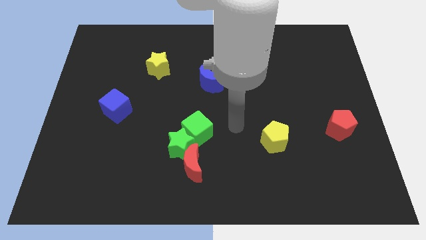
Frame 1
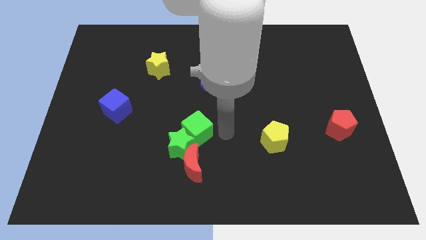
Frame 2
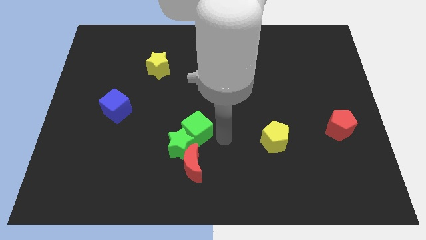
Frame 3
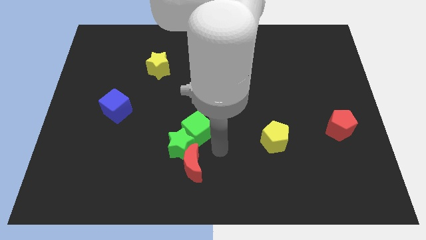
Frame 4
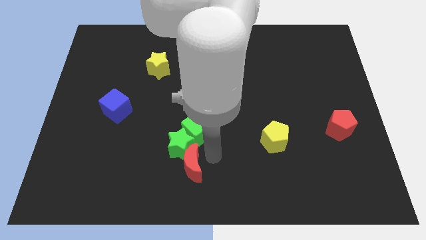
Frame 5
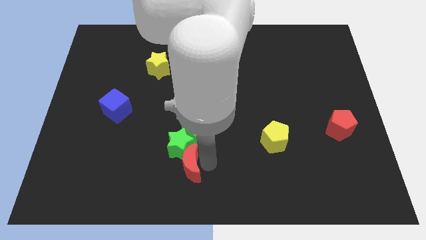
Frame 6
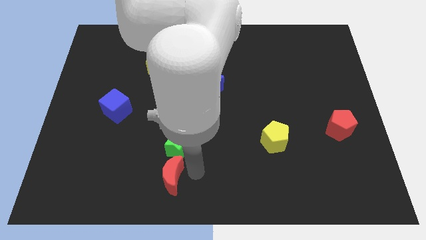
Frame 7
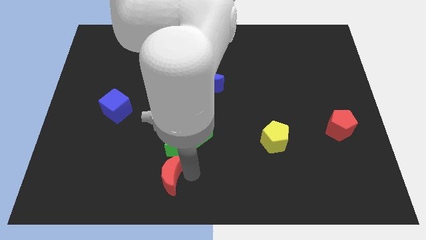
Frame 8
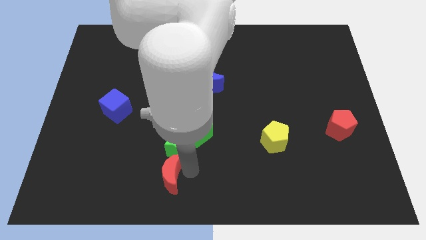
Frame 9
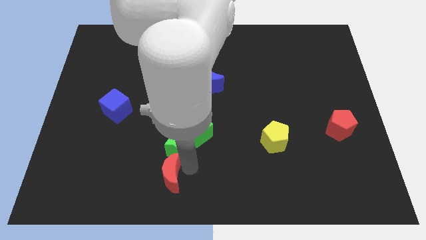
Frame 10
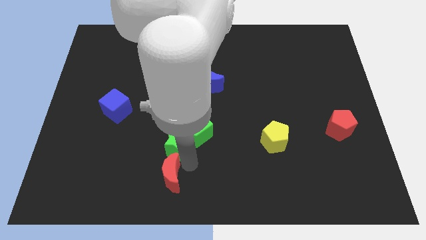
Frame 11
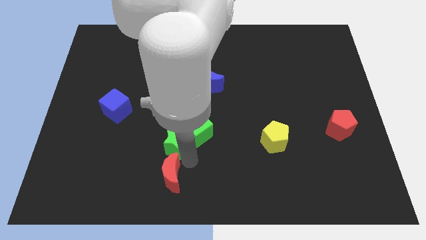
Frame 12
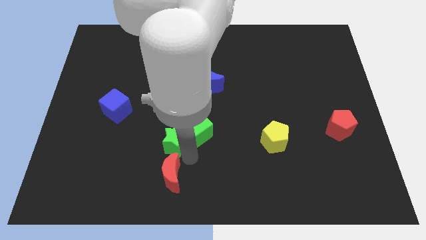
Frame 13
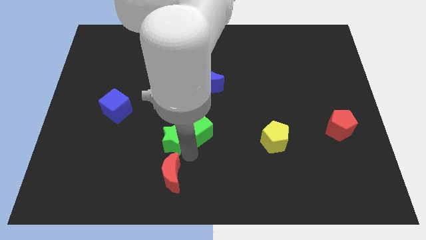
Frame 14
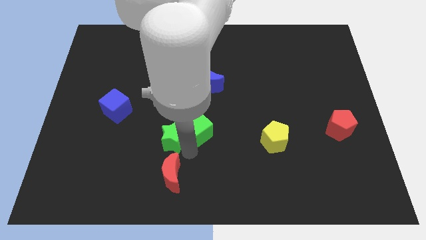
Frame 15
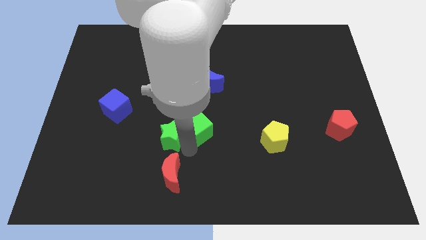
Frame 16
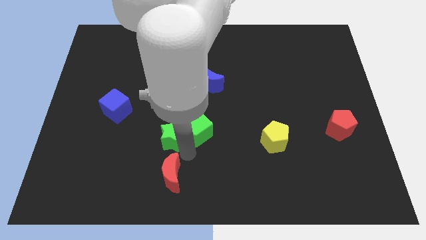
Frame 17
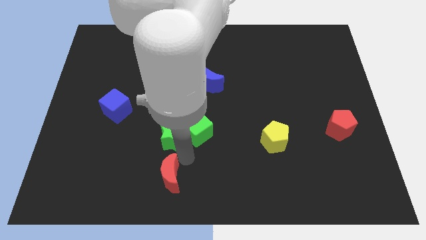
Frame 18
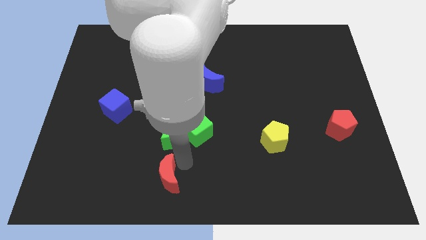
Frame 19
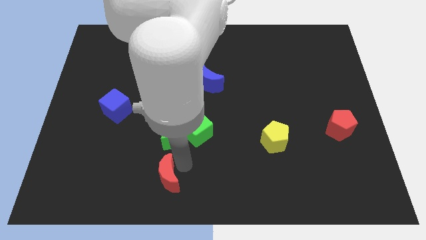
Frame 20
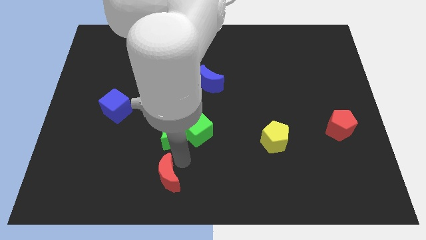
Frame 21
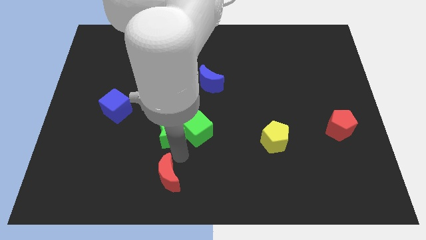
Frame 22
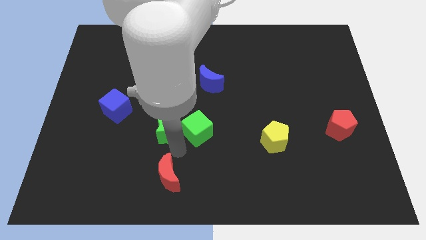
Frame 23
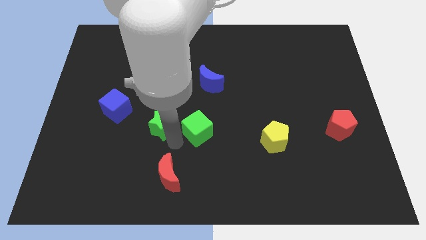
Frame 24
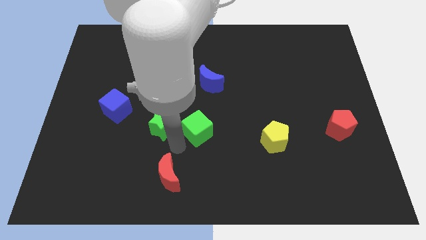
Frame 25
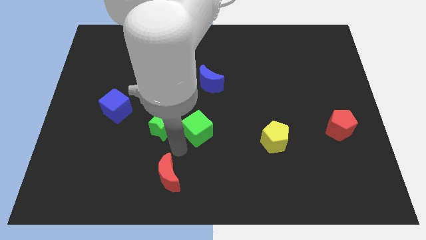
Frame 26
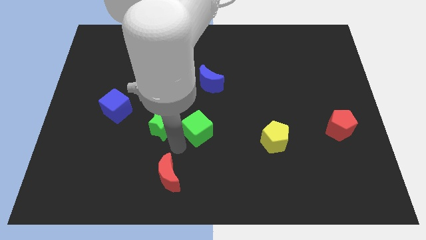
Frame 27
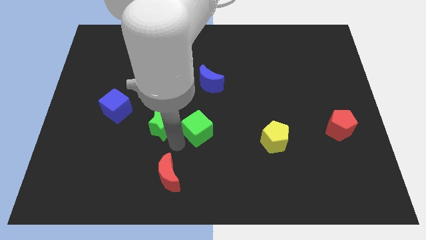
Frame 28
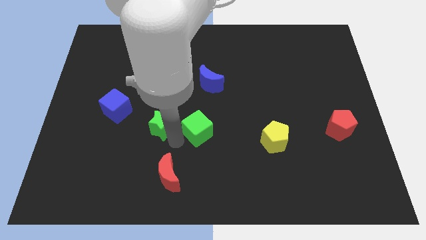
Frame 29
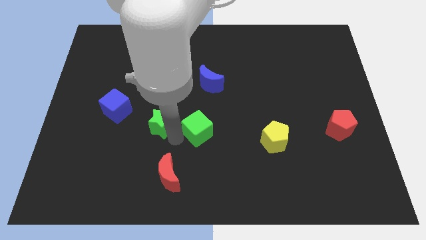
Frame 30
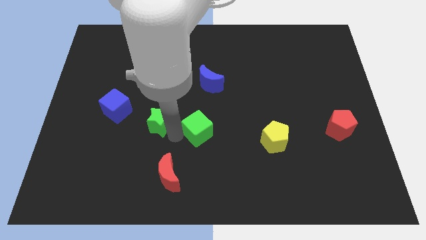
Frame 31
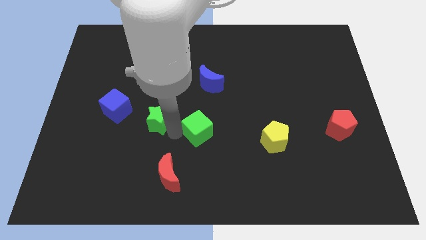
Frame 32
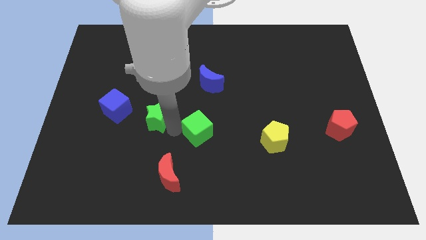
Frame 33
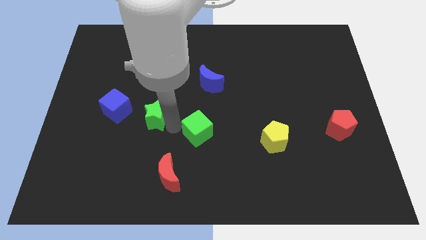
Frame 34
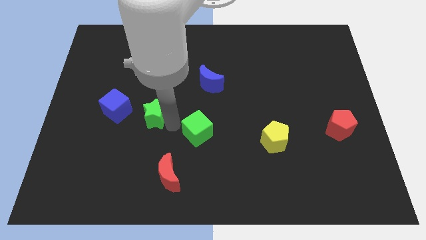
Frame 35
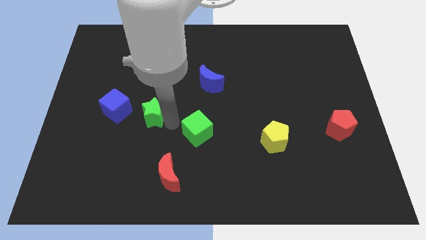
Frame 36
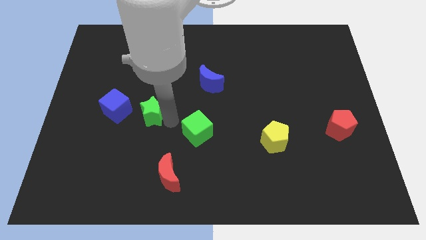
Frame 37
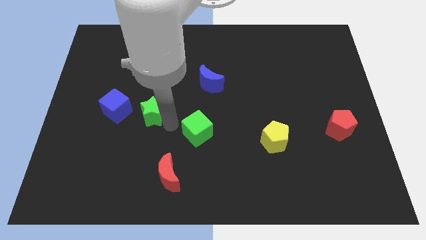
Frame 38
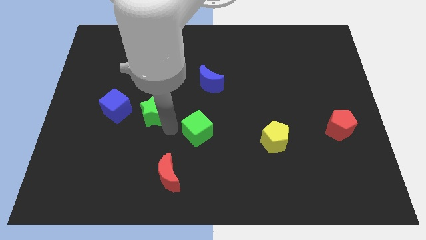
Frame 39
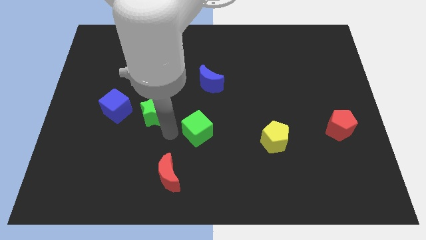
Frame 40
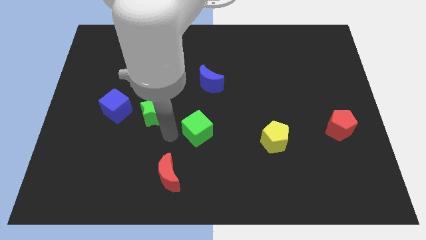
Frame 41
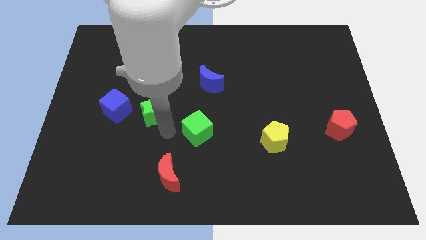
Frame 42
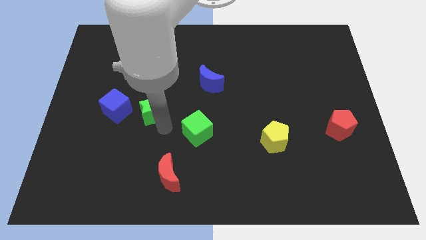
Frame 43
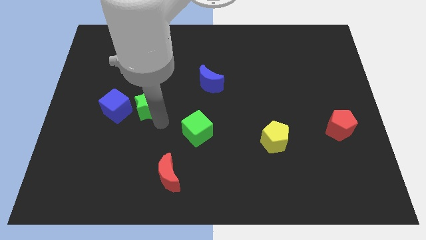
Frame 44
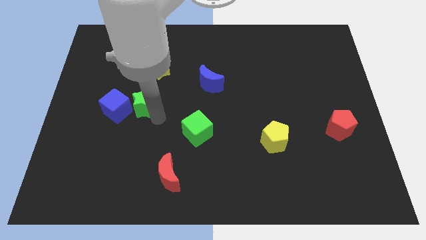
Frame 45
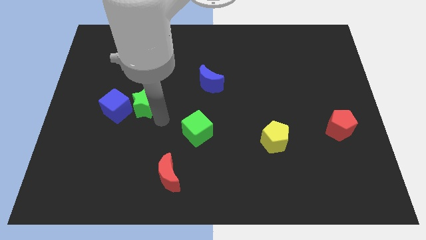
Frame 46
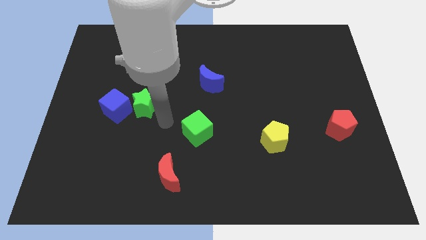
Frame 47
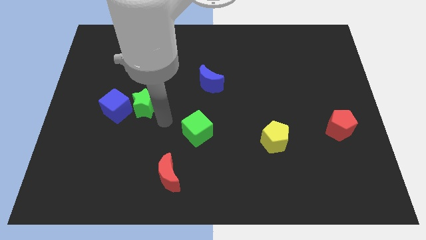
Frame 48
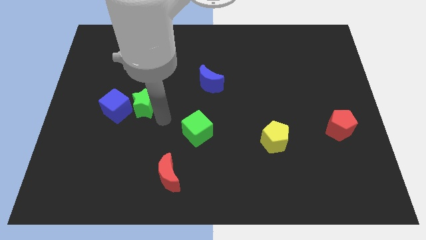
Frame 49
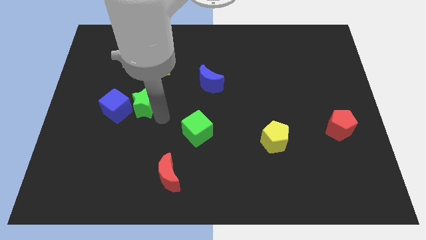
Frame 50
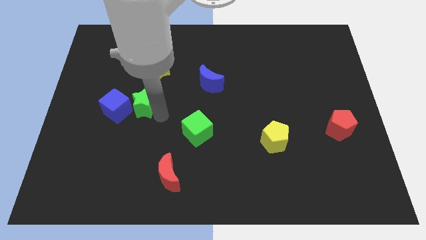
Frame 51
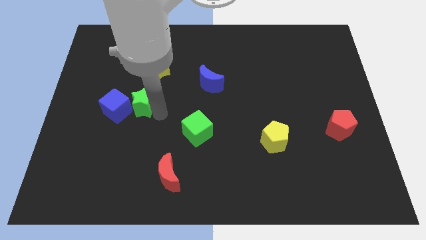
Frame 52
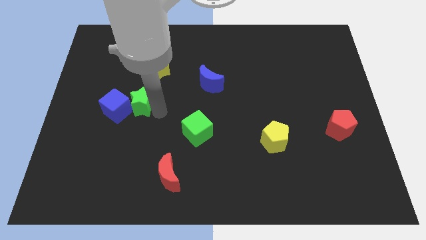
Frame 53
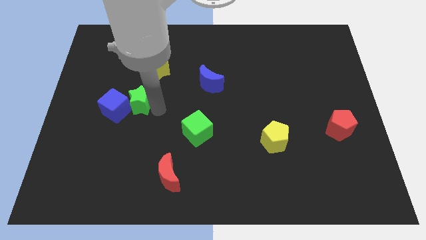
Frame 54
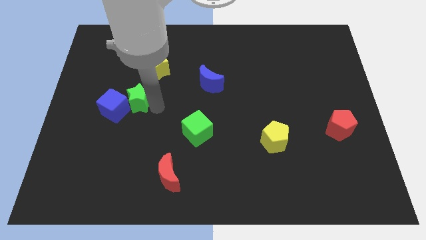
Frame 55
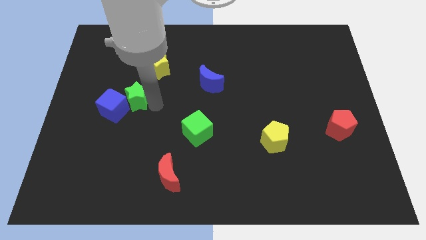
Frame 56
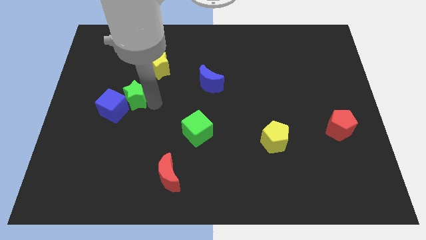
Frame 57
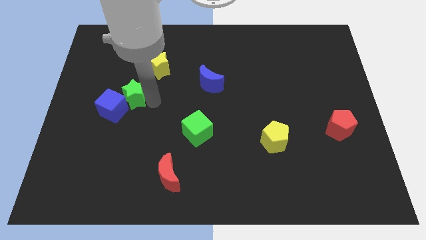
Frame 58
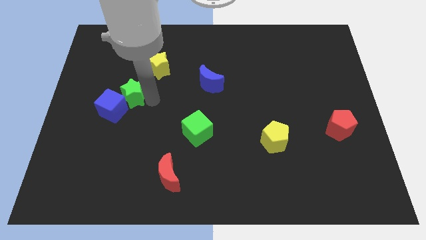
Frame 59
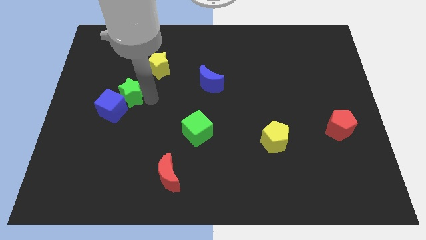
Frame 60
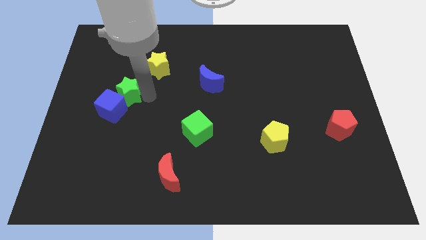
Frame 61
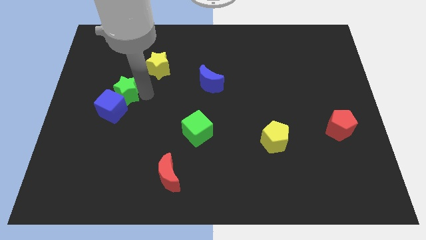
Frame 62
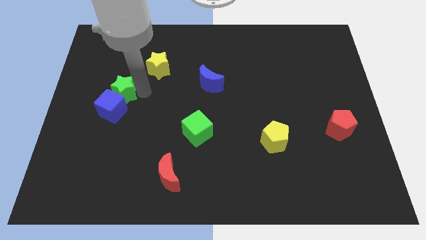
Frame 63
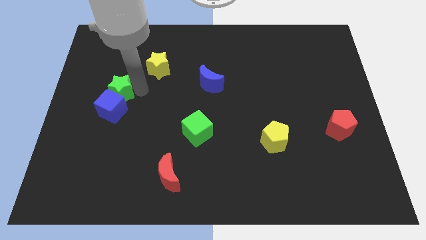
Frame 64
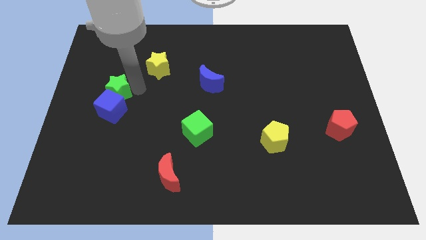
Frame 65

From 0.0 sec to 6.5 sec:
move the green star diagonally up and to the left of the blue cube

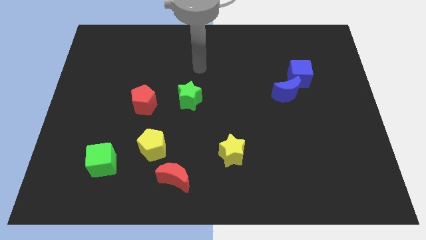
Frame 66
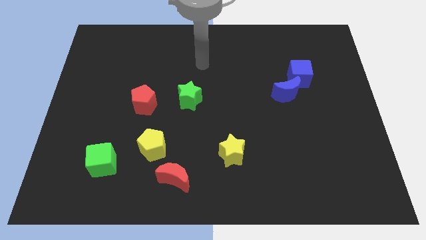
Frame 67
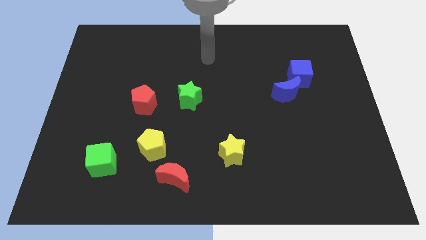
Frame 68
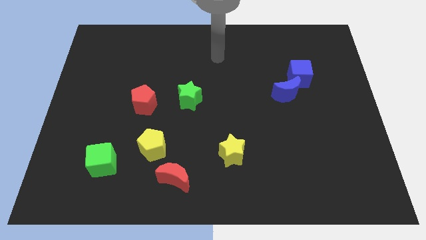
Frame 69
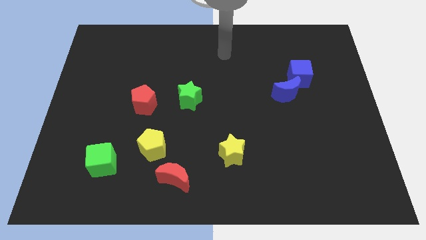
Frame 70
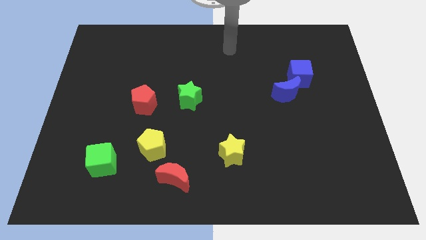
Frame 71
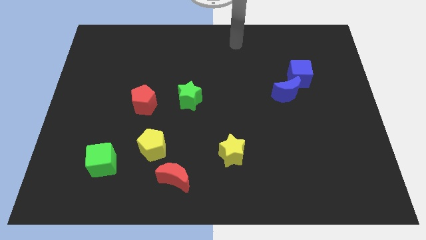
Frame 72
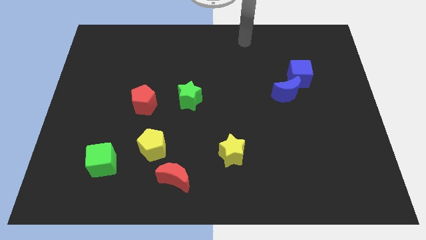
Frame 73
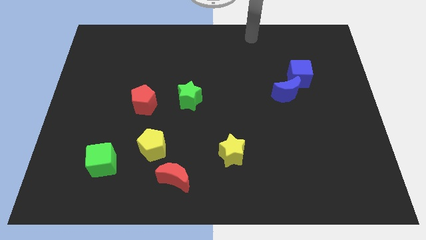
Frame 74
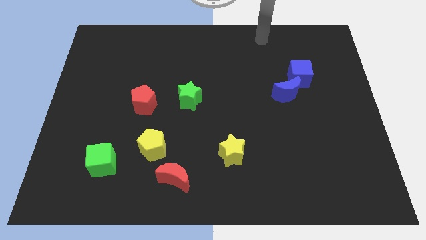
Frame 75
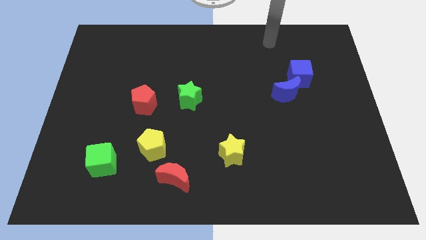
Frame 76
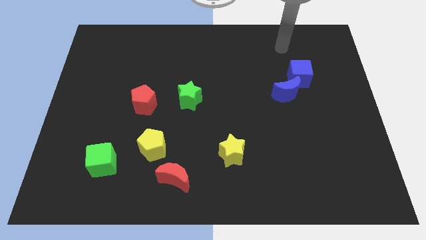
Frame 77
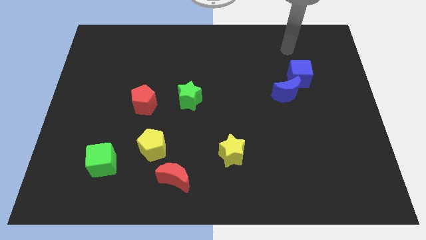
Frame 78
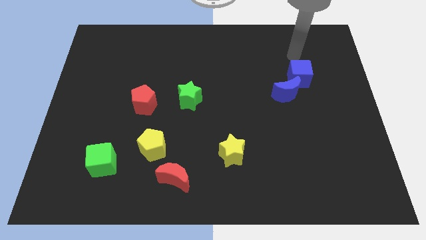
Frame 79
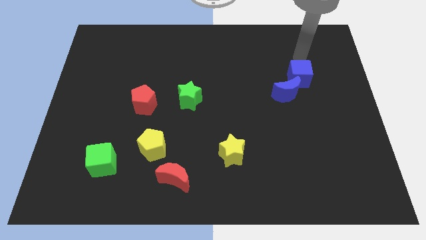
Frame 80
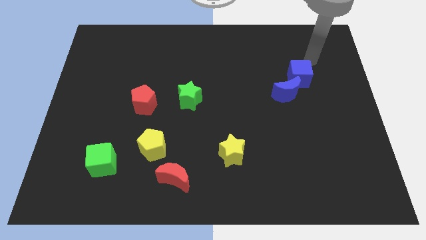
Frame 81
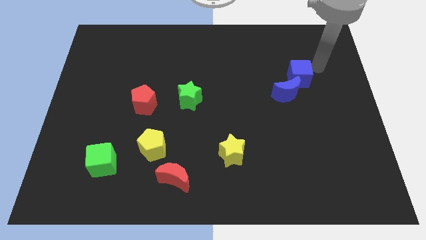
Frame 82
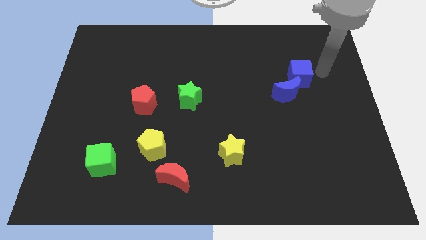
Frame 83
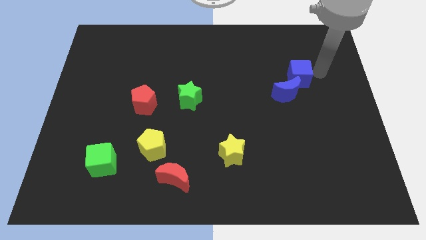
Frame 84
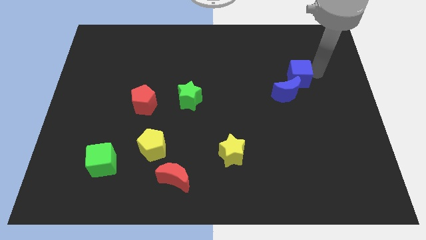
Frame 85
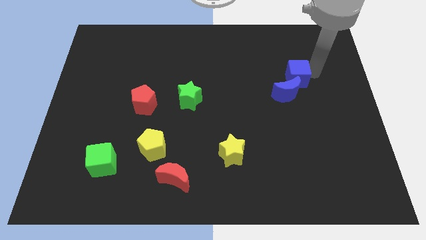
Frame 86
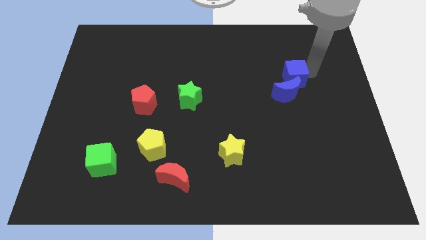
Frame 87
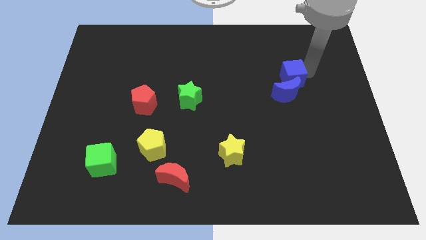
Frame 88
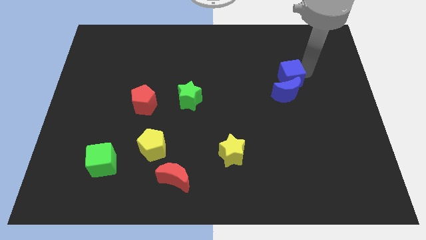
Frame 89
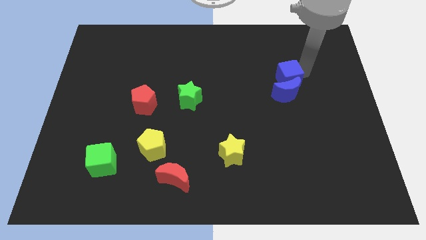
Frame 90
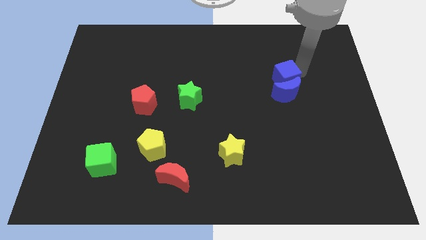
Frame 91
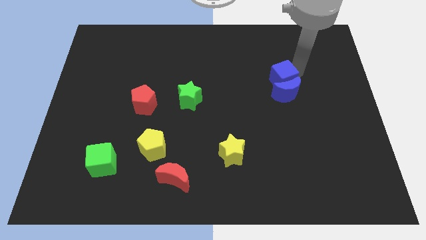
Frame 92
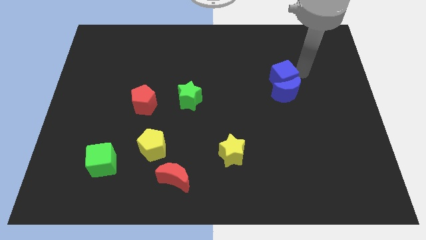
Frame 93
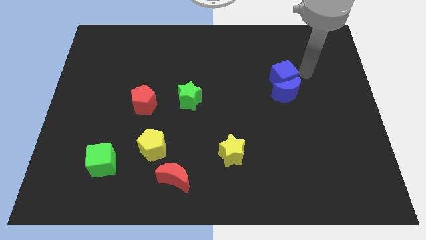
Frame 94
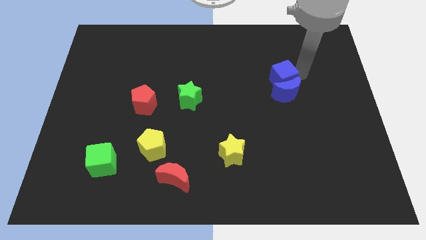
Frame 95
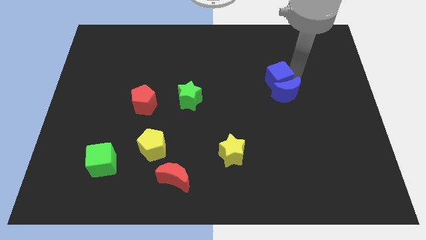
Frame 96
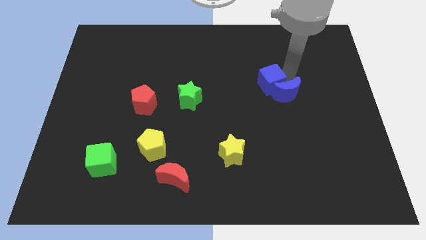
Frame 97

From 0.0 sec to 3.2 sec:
push the blue cube to the left side of the blue moon
